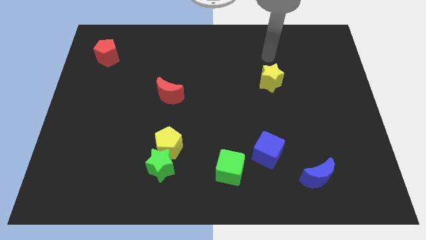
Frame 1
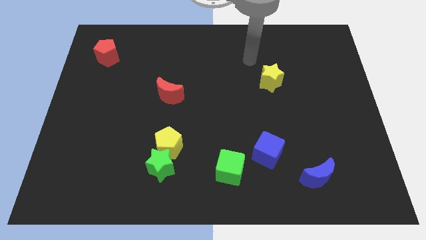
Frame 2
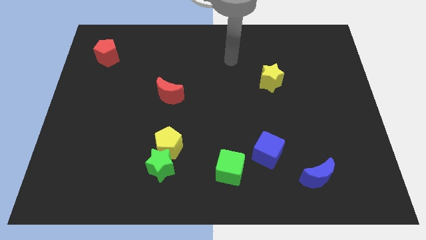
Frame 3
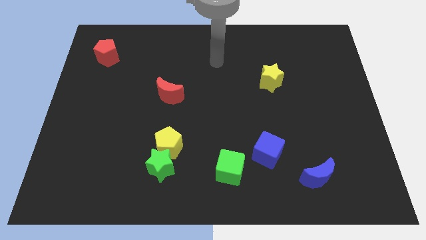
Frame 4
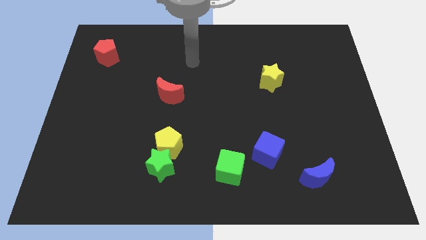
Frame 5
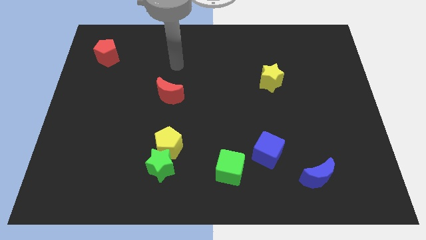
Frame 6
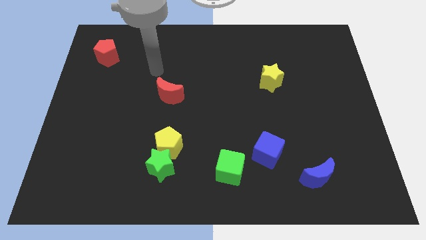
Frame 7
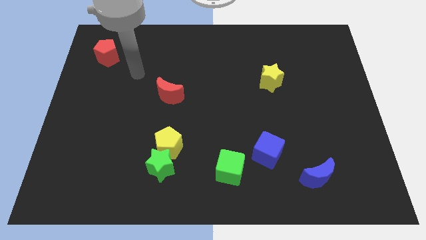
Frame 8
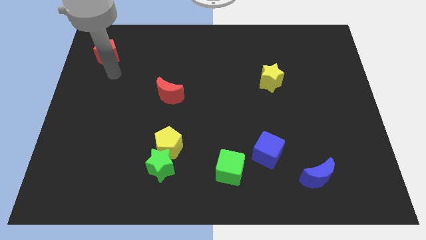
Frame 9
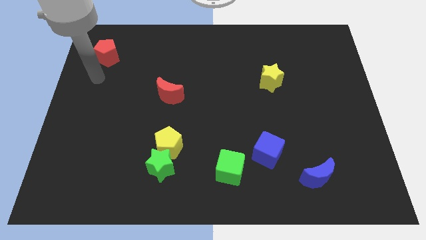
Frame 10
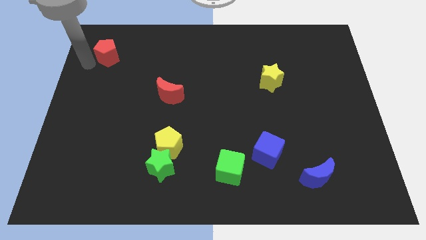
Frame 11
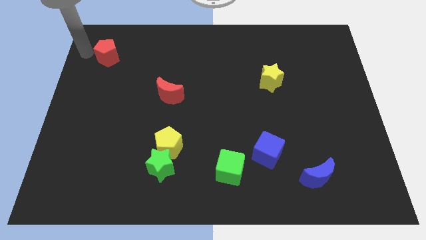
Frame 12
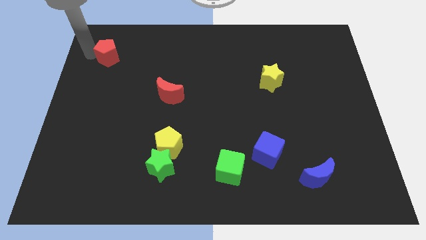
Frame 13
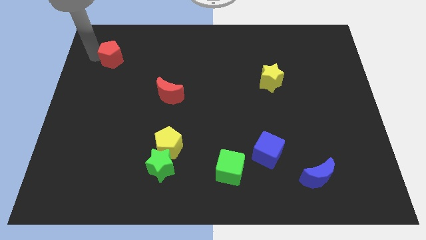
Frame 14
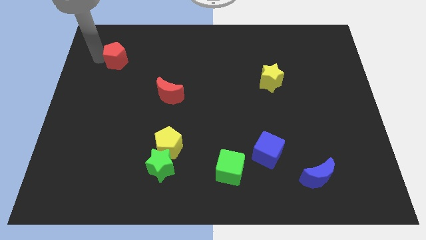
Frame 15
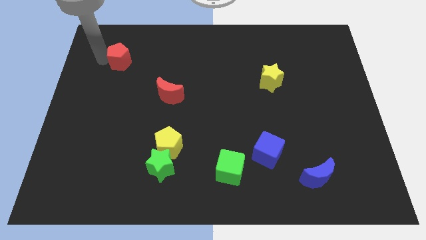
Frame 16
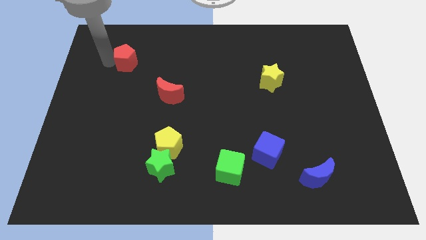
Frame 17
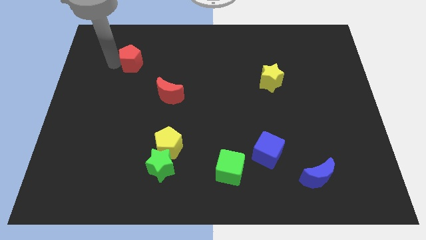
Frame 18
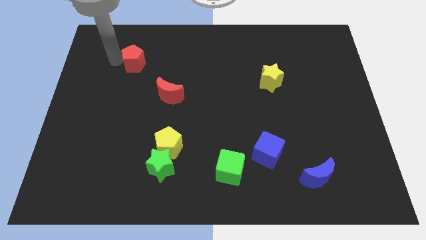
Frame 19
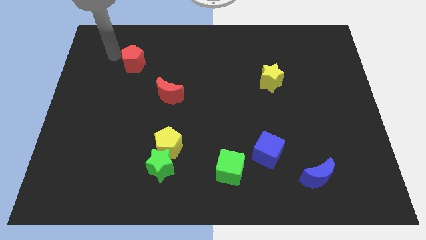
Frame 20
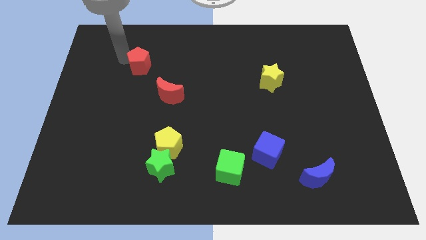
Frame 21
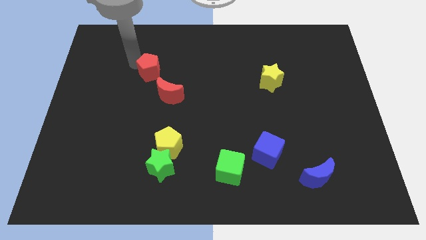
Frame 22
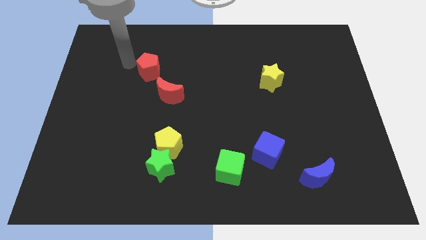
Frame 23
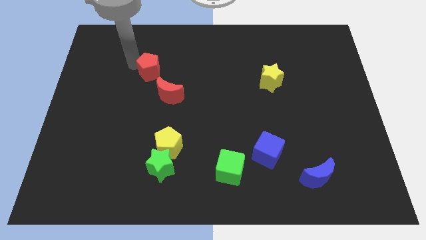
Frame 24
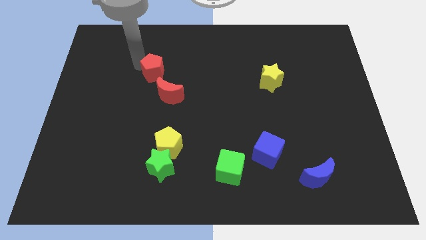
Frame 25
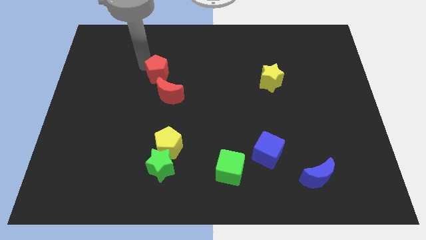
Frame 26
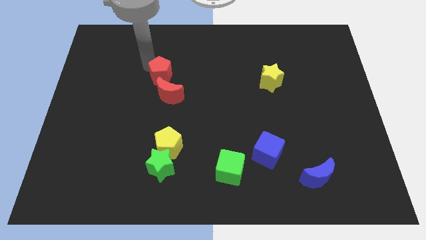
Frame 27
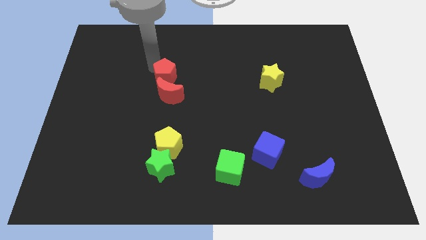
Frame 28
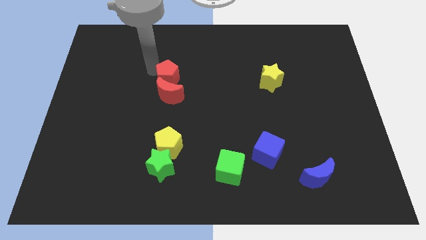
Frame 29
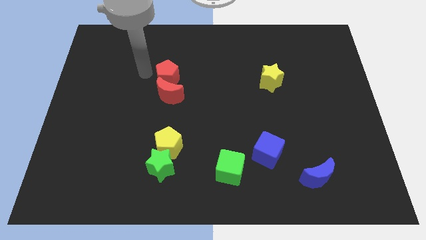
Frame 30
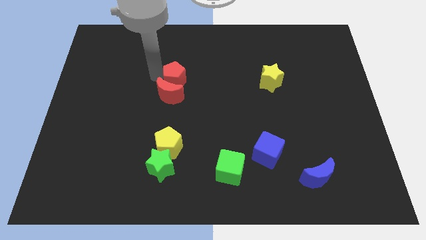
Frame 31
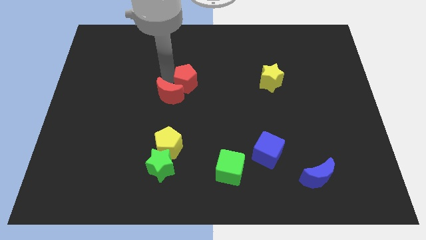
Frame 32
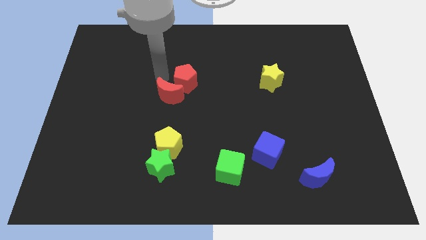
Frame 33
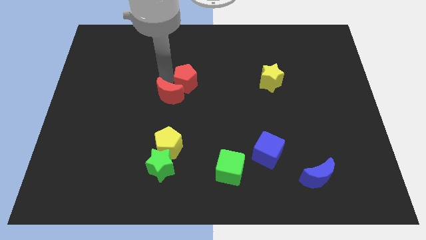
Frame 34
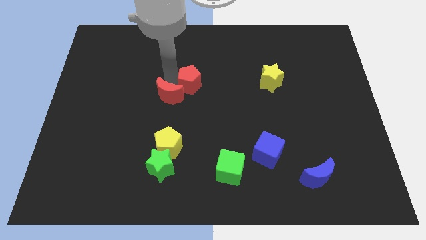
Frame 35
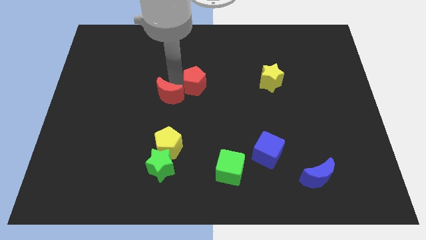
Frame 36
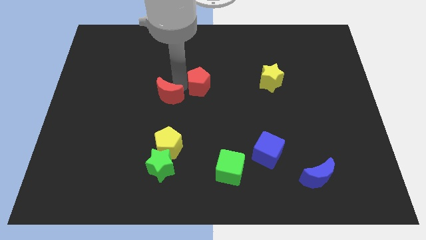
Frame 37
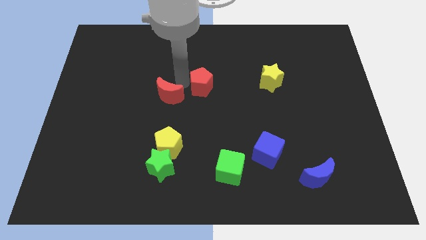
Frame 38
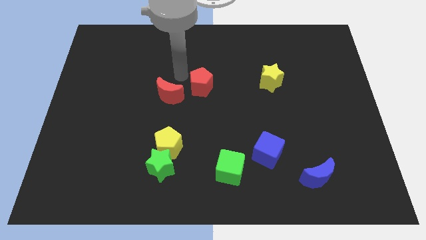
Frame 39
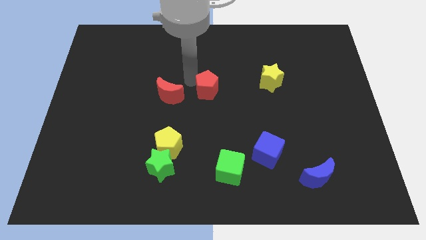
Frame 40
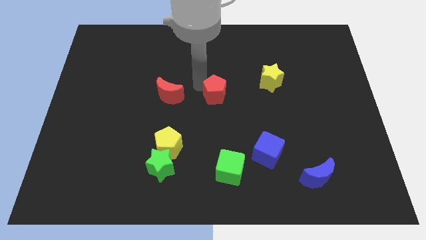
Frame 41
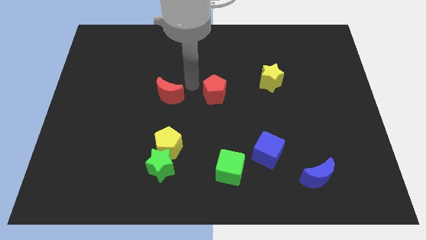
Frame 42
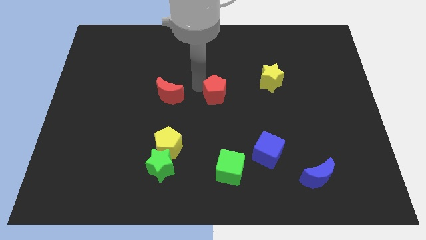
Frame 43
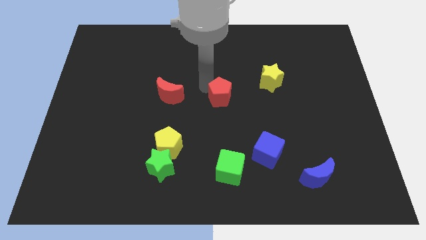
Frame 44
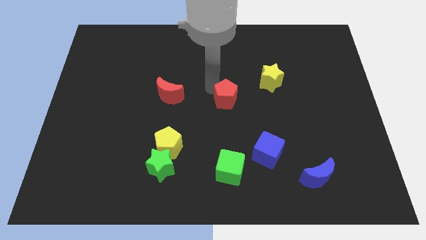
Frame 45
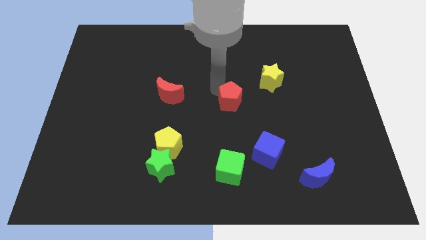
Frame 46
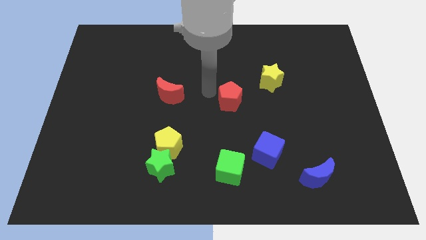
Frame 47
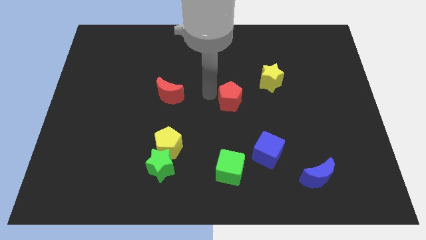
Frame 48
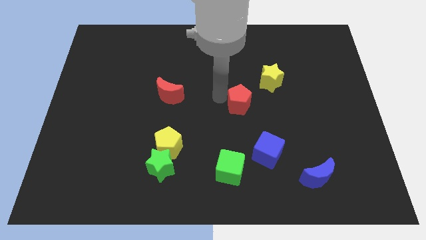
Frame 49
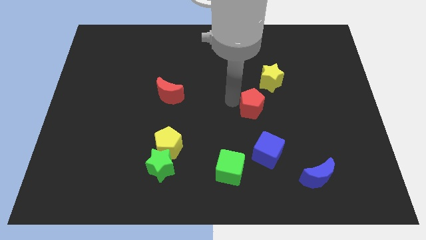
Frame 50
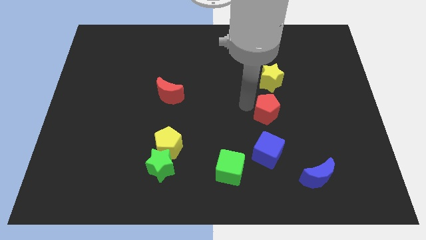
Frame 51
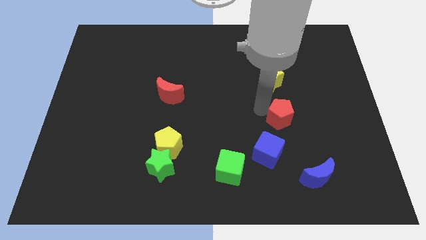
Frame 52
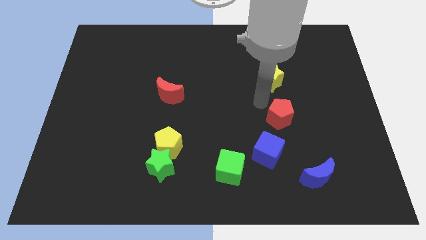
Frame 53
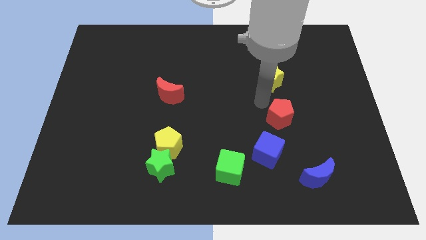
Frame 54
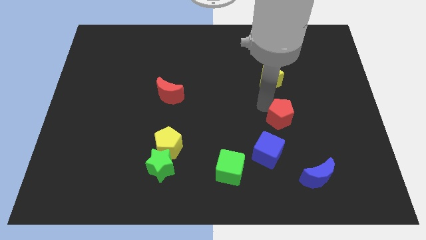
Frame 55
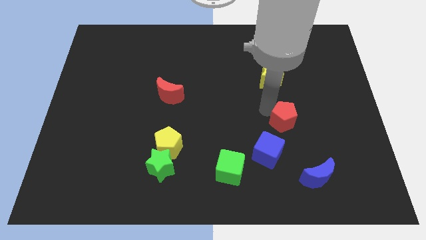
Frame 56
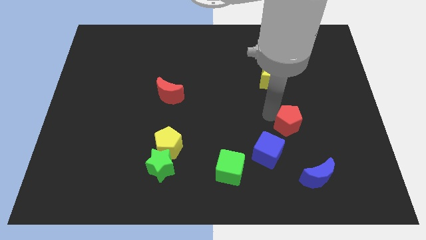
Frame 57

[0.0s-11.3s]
push the red pentagon to the top of the blue moon

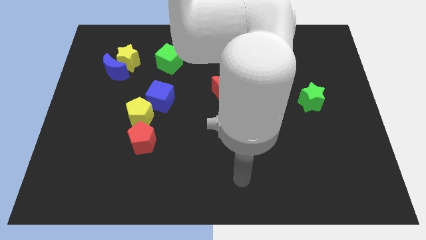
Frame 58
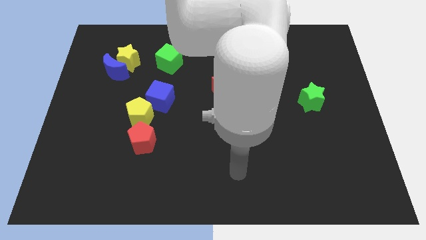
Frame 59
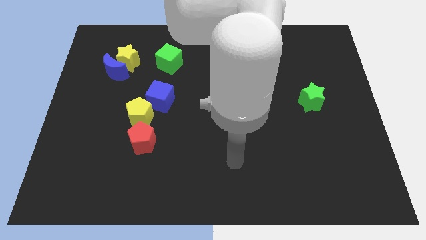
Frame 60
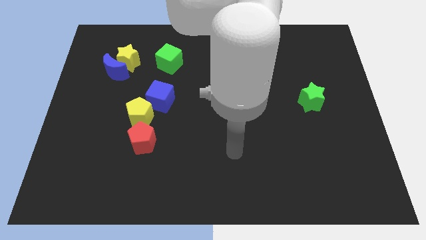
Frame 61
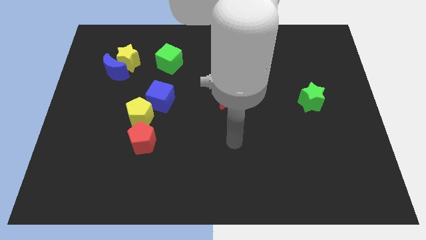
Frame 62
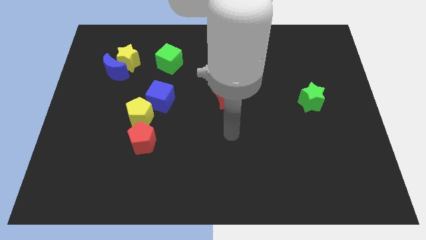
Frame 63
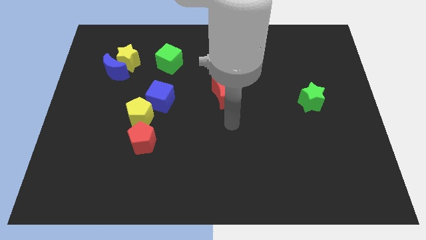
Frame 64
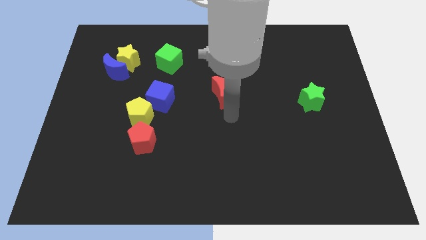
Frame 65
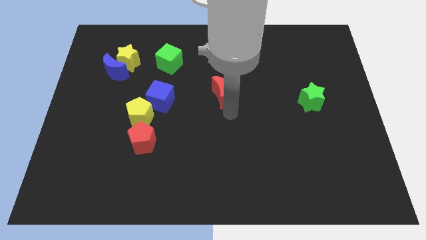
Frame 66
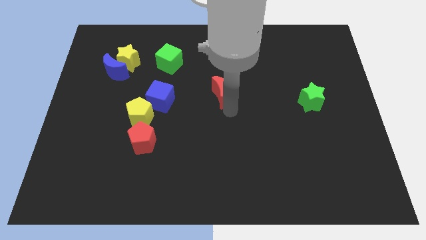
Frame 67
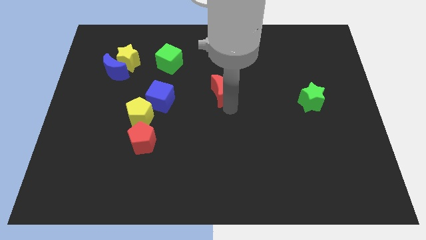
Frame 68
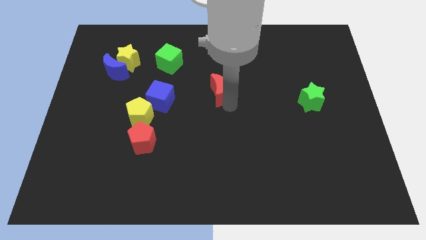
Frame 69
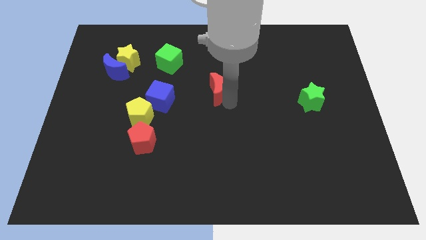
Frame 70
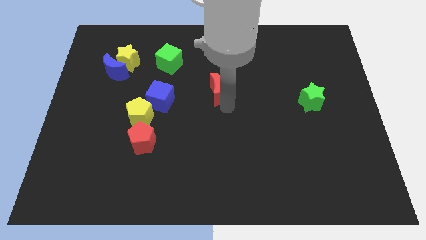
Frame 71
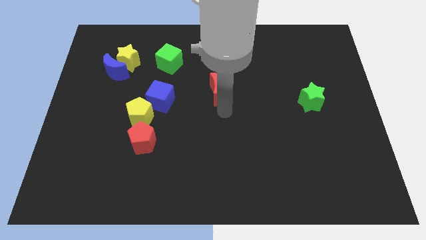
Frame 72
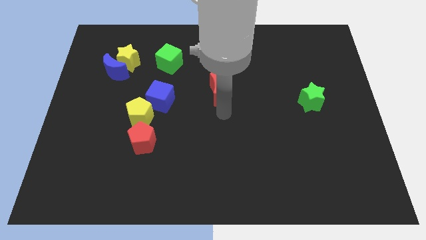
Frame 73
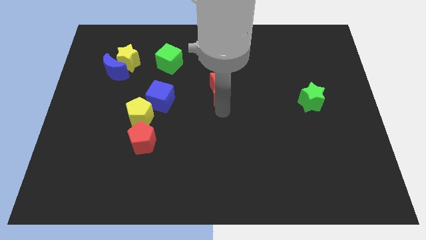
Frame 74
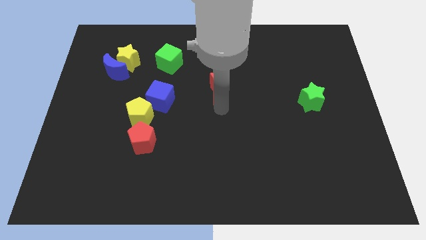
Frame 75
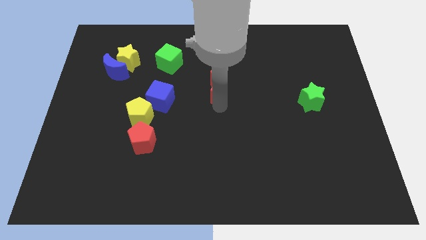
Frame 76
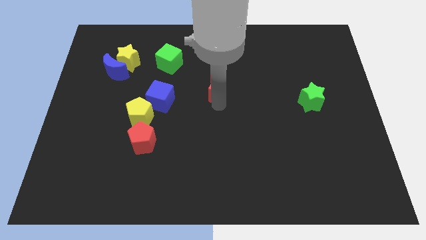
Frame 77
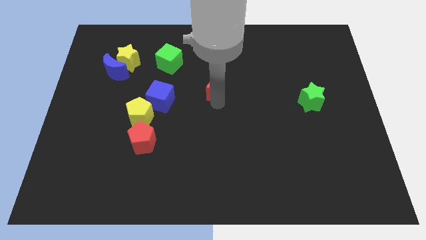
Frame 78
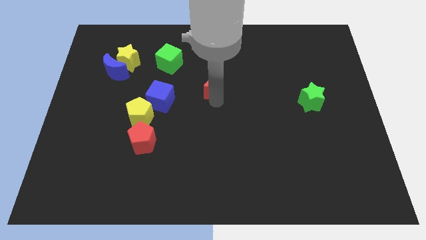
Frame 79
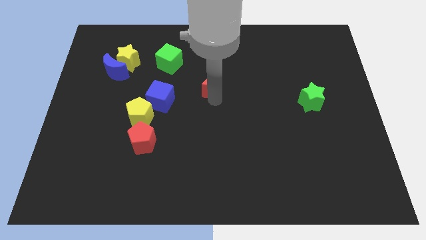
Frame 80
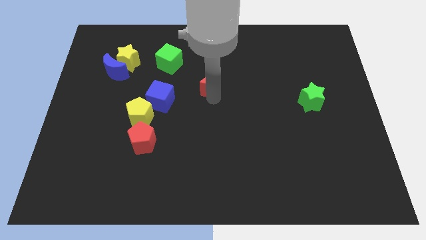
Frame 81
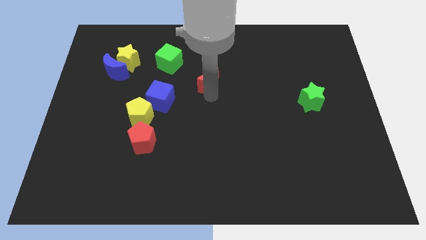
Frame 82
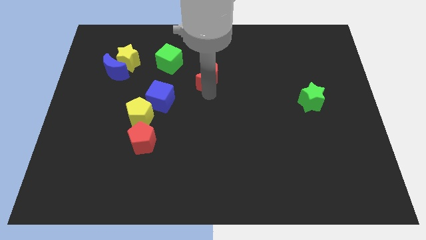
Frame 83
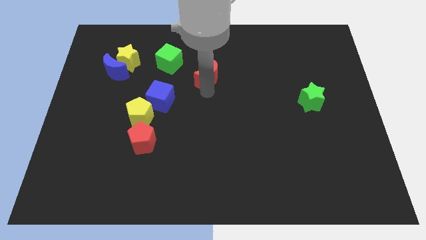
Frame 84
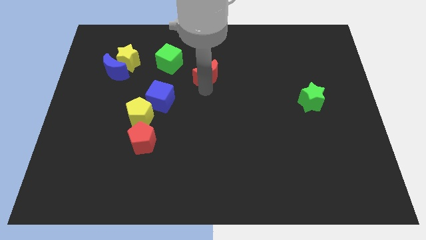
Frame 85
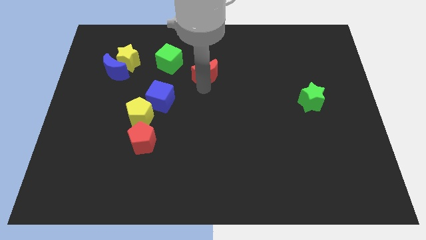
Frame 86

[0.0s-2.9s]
put the red moon to the right of the green cube
